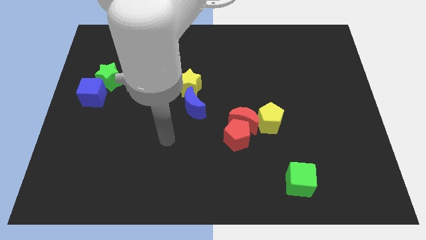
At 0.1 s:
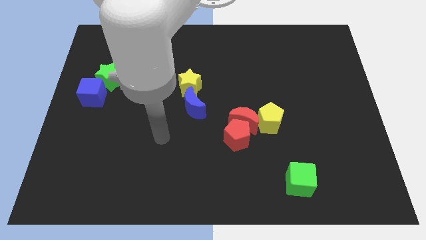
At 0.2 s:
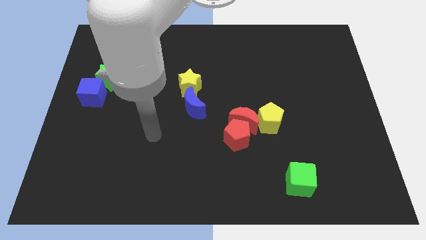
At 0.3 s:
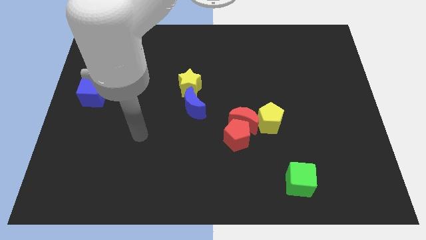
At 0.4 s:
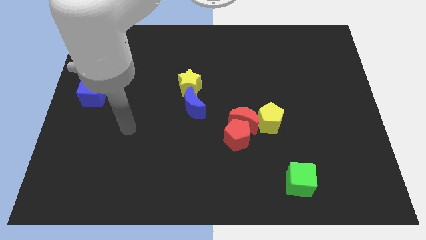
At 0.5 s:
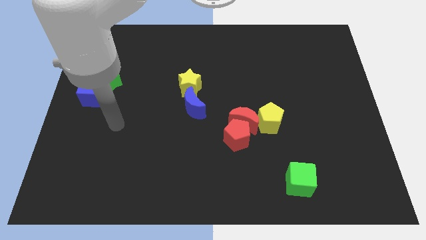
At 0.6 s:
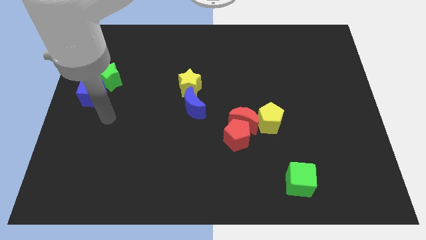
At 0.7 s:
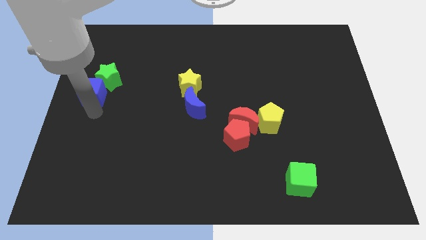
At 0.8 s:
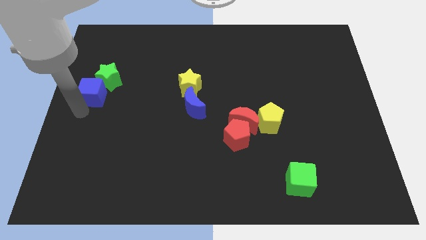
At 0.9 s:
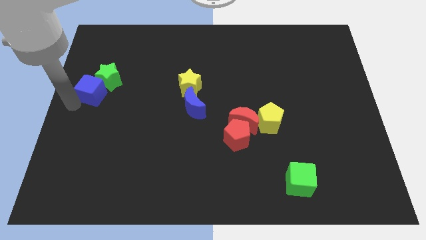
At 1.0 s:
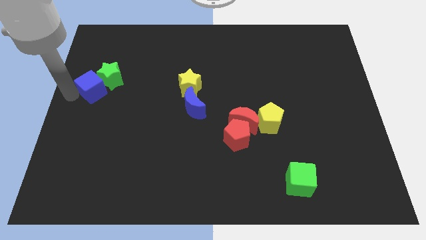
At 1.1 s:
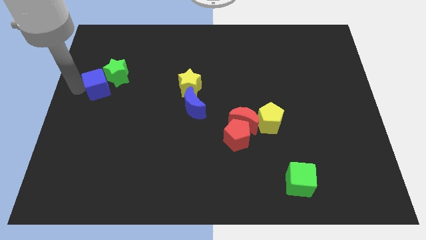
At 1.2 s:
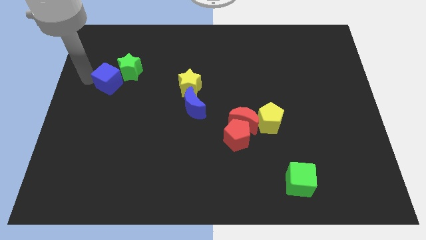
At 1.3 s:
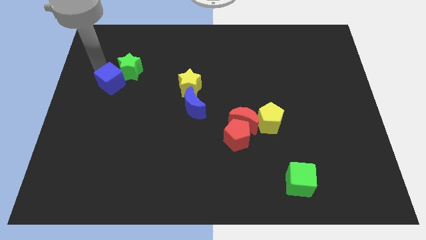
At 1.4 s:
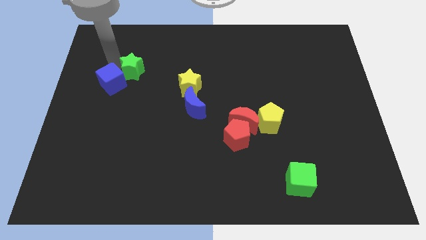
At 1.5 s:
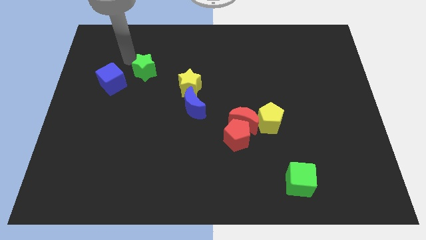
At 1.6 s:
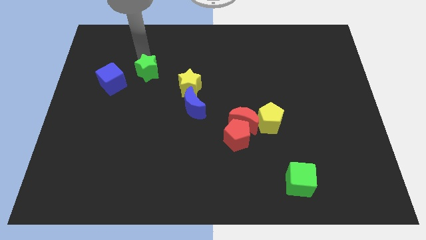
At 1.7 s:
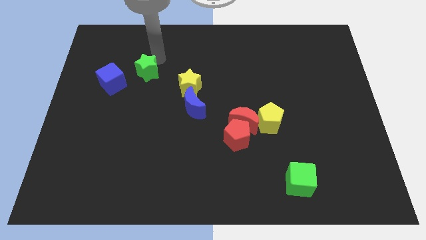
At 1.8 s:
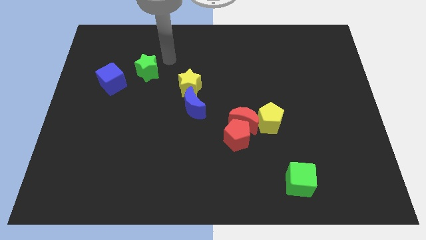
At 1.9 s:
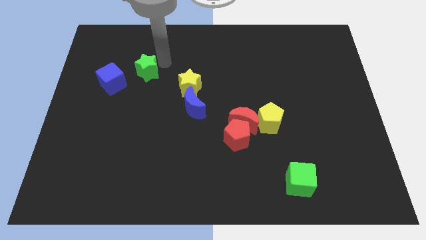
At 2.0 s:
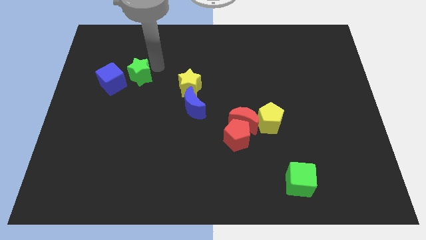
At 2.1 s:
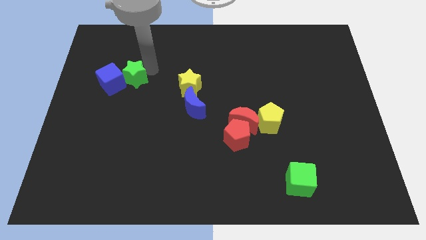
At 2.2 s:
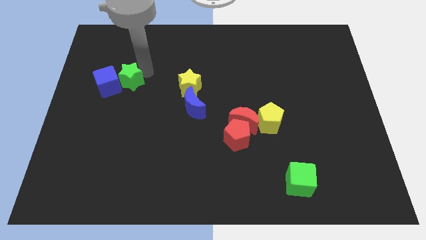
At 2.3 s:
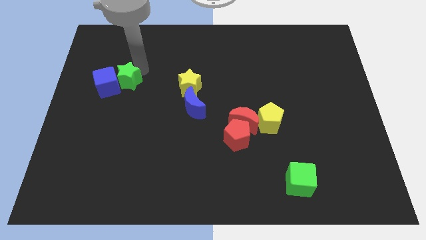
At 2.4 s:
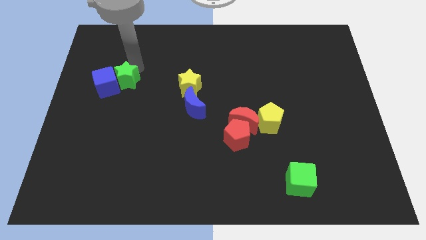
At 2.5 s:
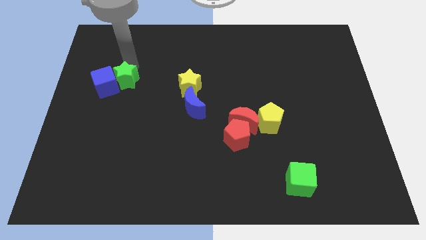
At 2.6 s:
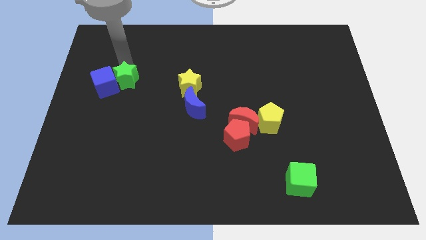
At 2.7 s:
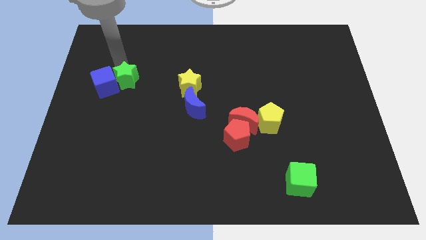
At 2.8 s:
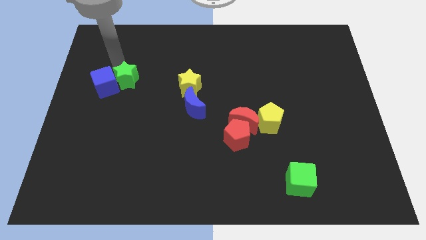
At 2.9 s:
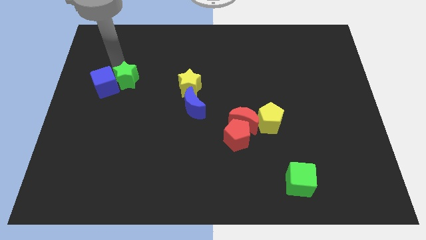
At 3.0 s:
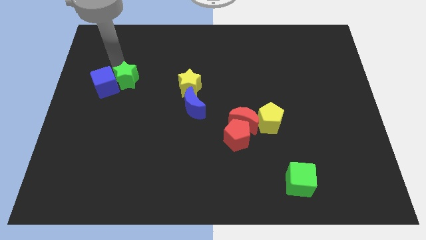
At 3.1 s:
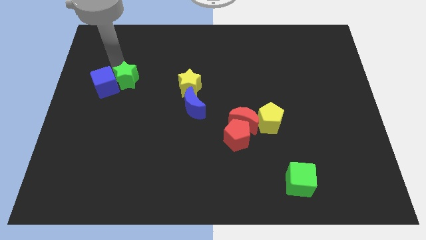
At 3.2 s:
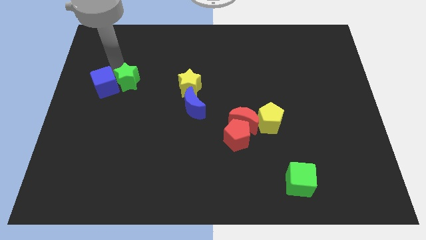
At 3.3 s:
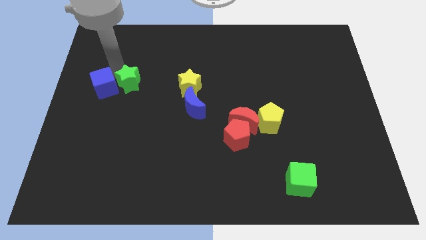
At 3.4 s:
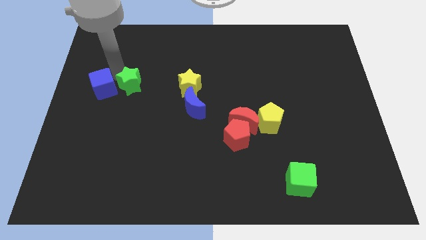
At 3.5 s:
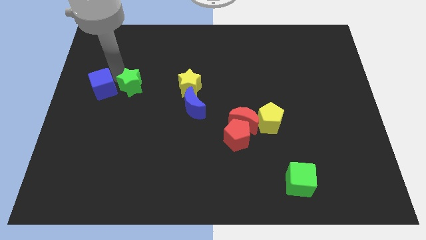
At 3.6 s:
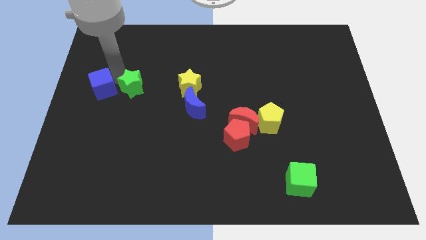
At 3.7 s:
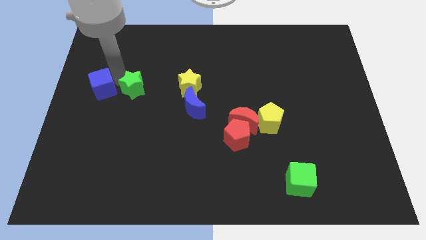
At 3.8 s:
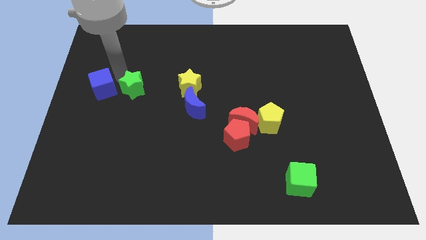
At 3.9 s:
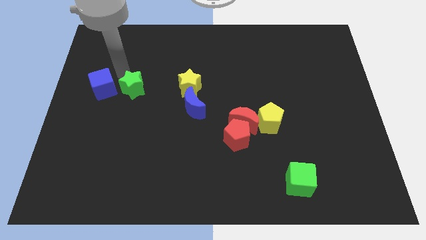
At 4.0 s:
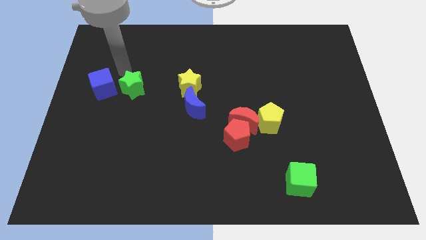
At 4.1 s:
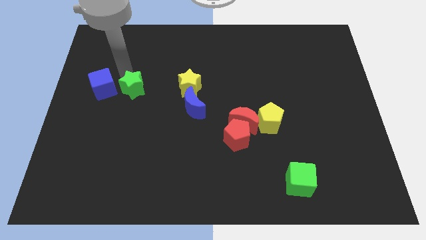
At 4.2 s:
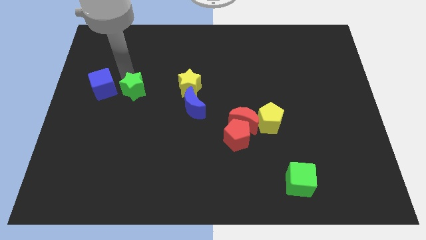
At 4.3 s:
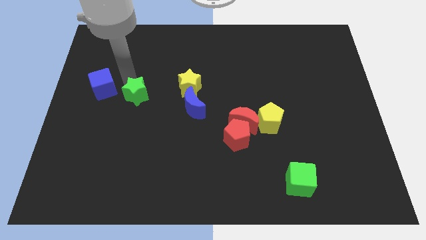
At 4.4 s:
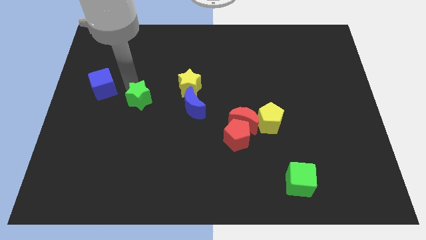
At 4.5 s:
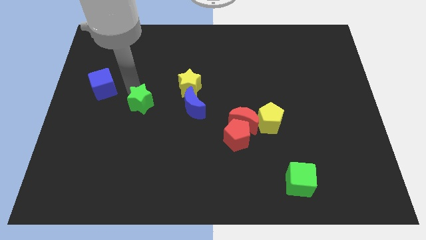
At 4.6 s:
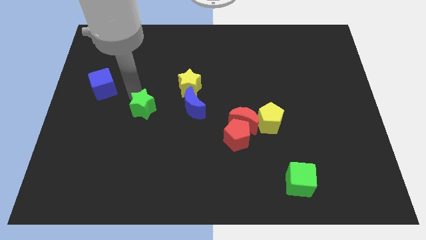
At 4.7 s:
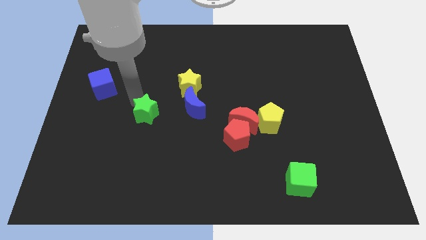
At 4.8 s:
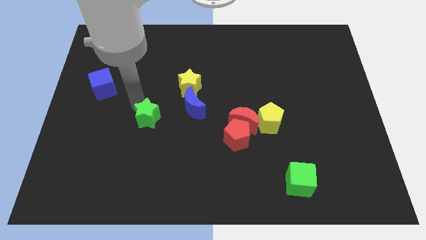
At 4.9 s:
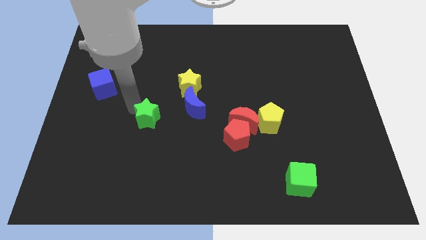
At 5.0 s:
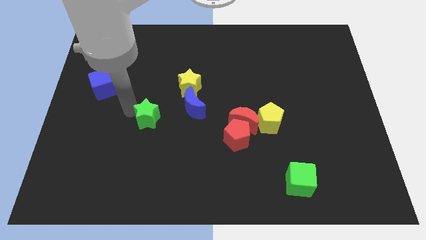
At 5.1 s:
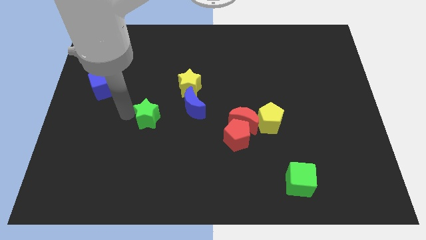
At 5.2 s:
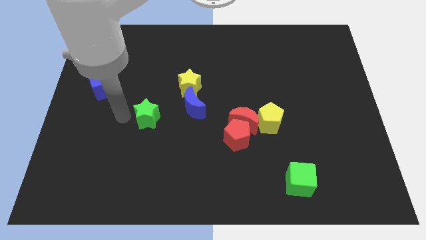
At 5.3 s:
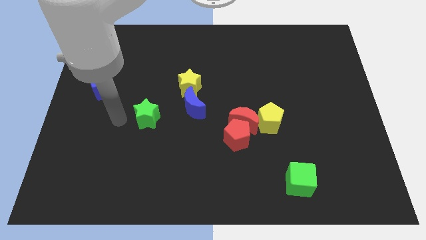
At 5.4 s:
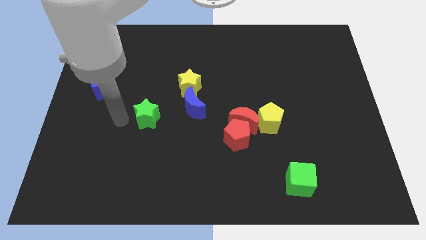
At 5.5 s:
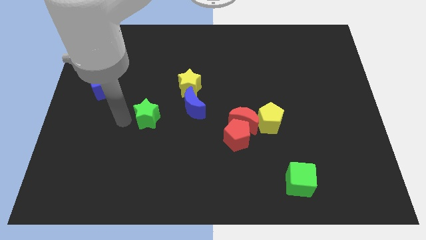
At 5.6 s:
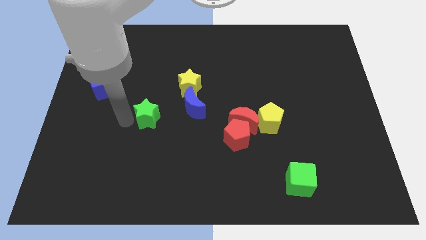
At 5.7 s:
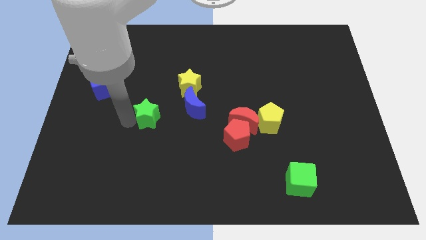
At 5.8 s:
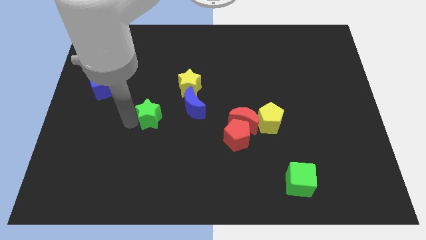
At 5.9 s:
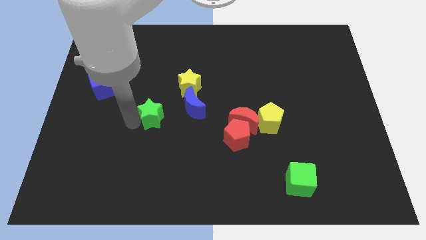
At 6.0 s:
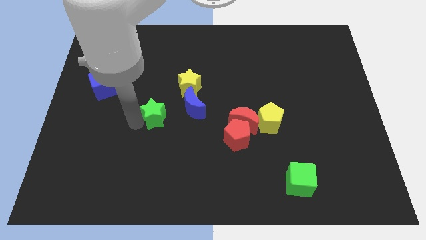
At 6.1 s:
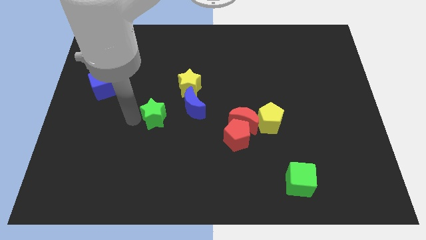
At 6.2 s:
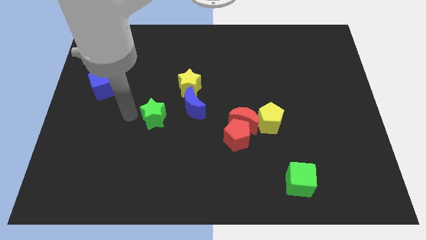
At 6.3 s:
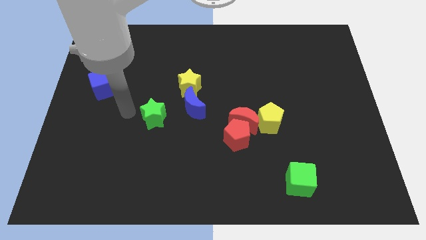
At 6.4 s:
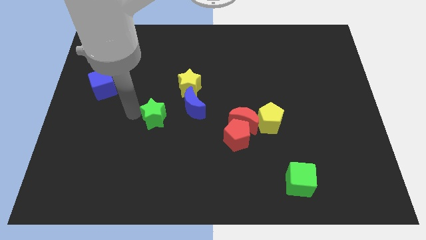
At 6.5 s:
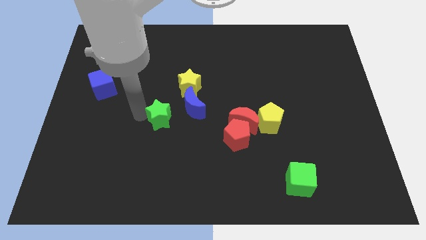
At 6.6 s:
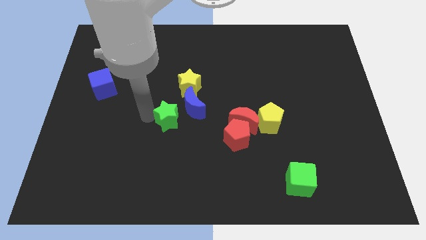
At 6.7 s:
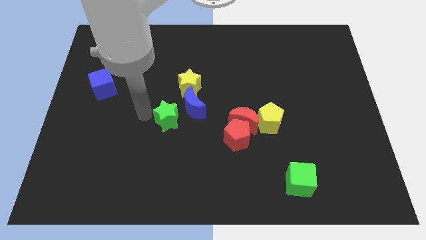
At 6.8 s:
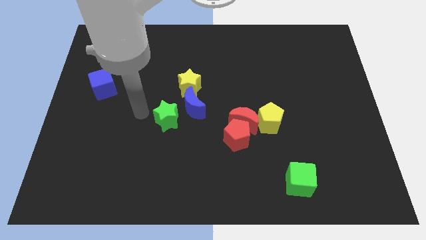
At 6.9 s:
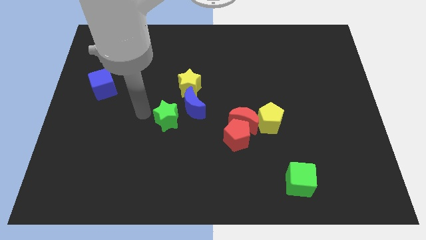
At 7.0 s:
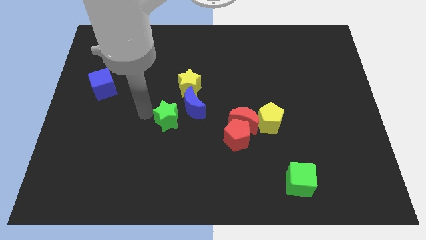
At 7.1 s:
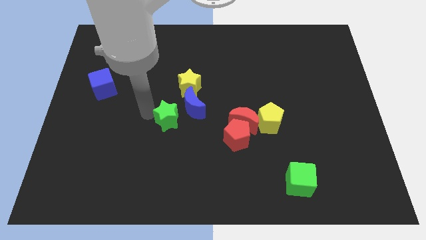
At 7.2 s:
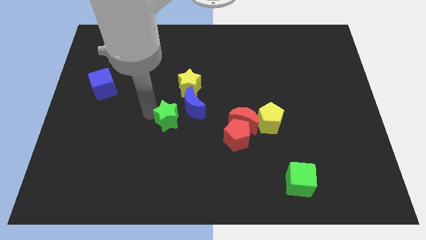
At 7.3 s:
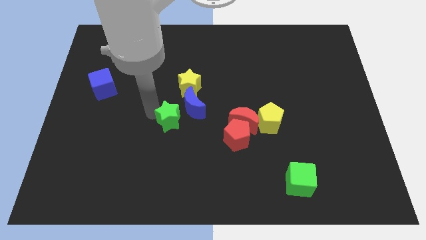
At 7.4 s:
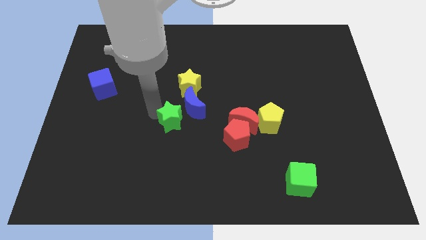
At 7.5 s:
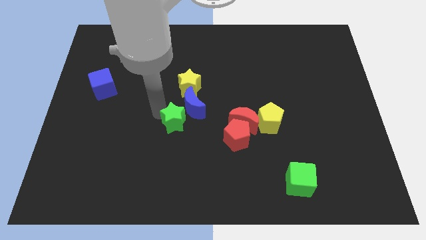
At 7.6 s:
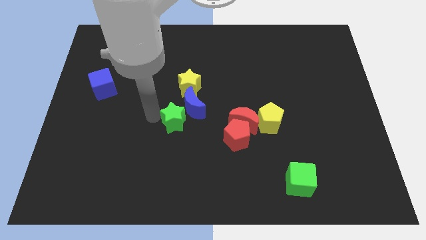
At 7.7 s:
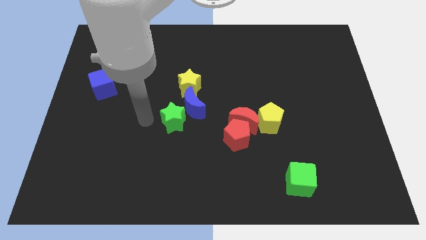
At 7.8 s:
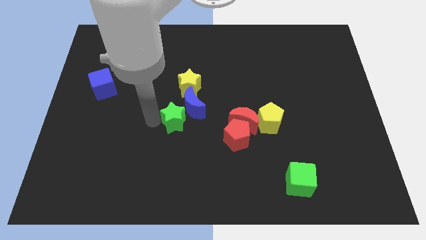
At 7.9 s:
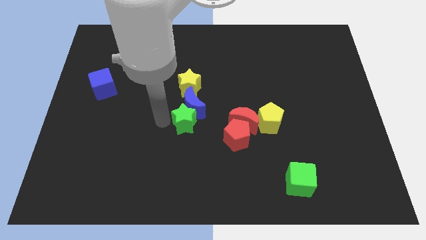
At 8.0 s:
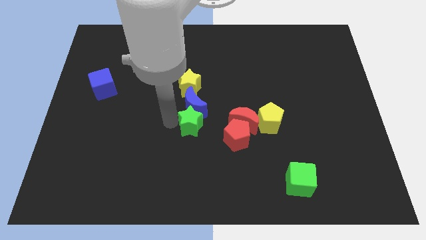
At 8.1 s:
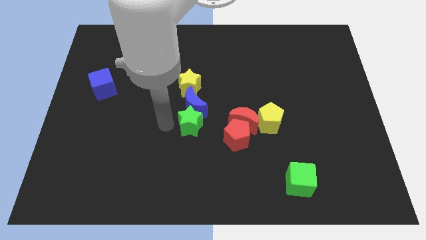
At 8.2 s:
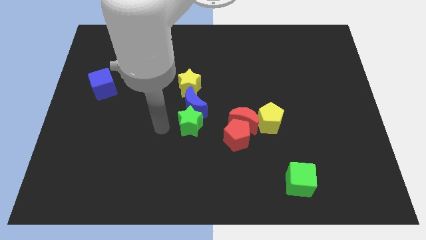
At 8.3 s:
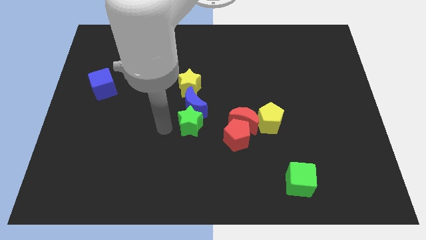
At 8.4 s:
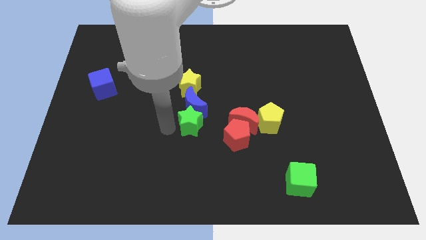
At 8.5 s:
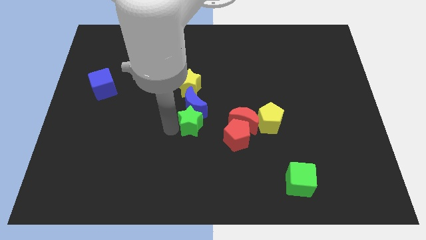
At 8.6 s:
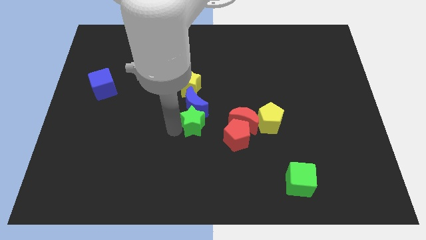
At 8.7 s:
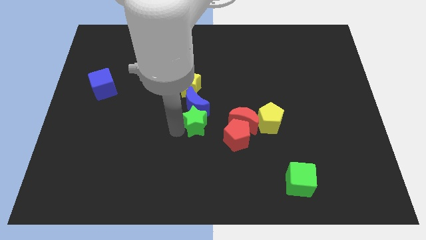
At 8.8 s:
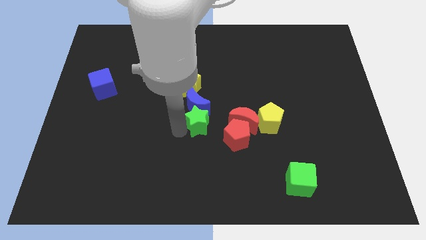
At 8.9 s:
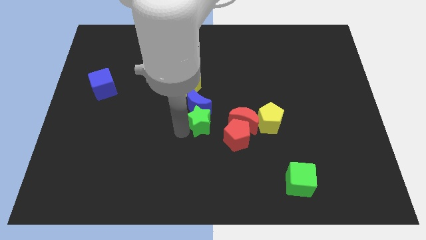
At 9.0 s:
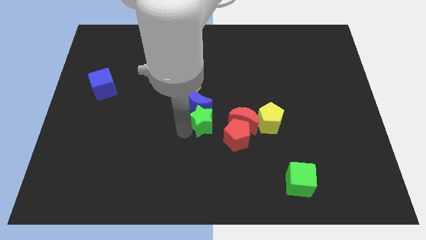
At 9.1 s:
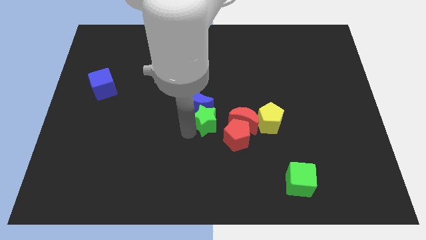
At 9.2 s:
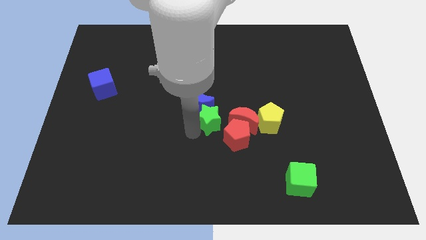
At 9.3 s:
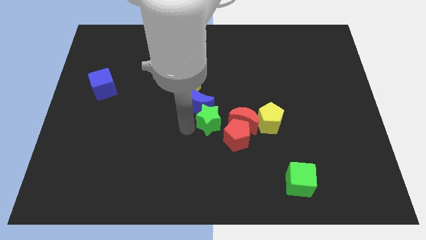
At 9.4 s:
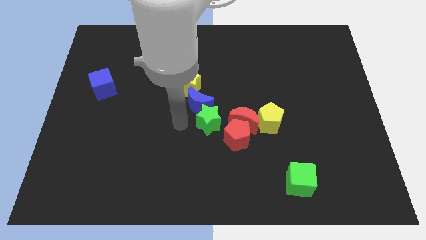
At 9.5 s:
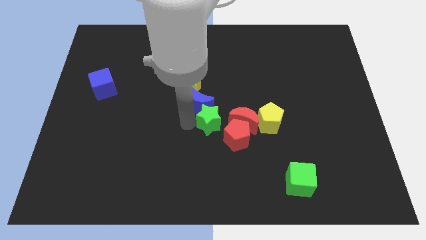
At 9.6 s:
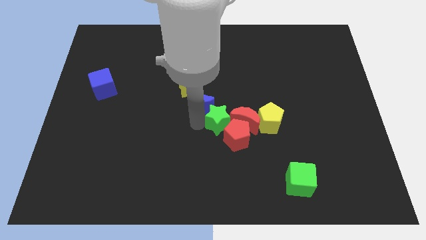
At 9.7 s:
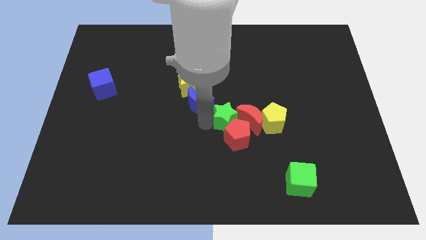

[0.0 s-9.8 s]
slide the green star close to the red moon
